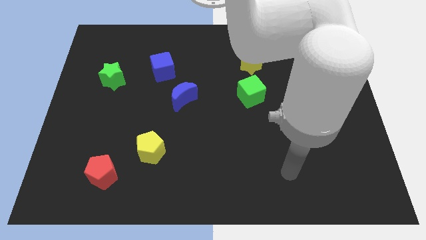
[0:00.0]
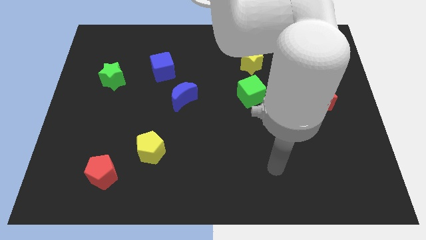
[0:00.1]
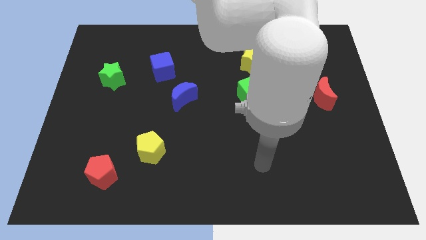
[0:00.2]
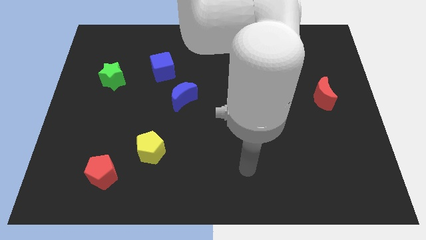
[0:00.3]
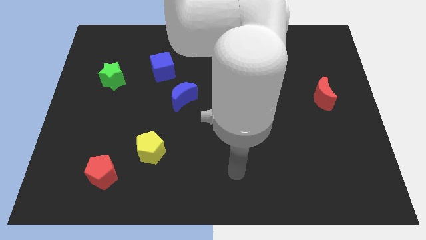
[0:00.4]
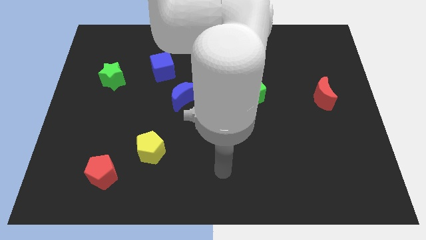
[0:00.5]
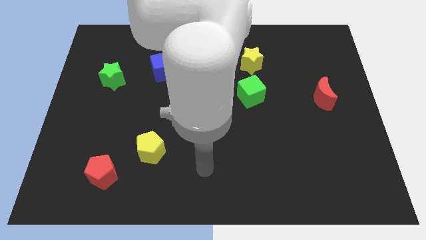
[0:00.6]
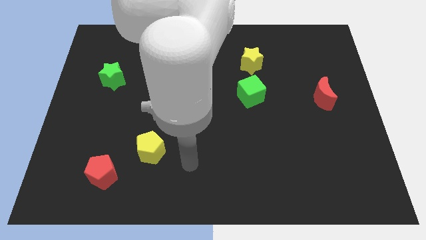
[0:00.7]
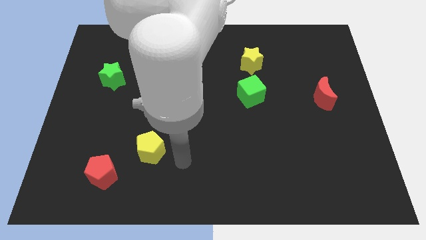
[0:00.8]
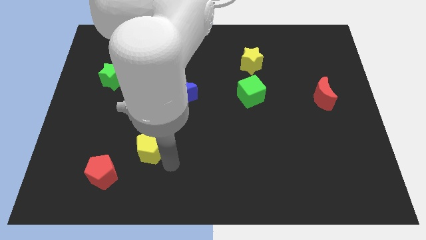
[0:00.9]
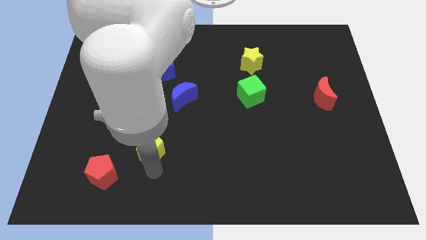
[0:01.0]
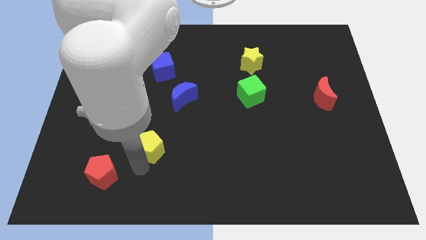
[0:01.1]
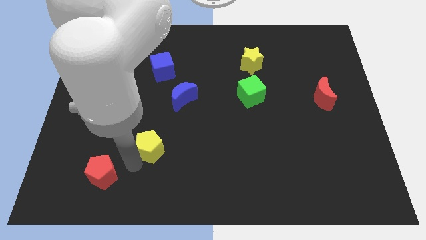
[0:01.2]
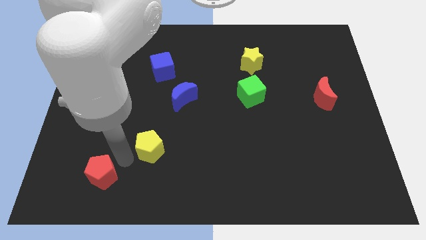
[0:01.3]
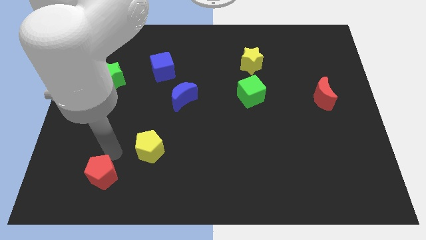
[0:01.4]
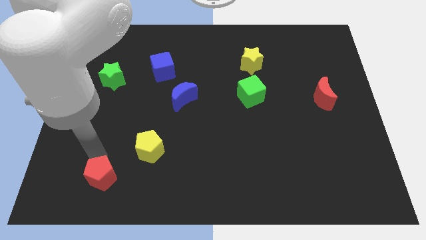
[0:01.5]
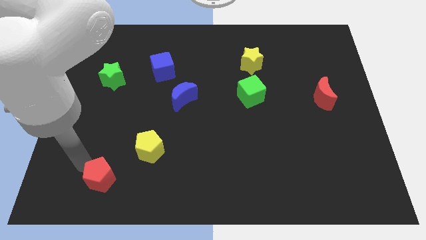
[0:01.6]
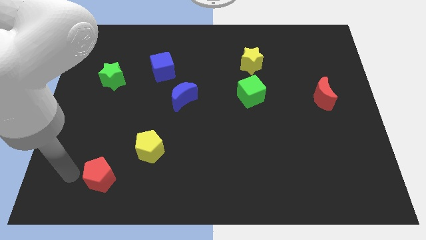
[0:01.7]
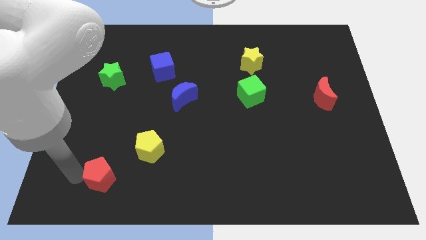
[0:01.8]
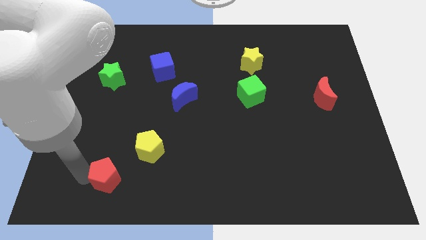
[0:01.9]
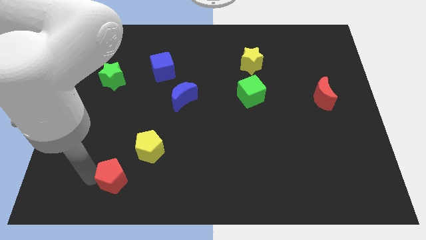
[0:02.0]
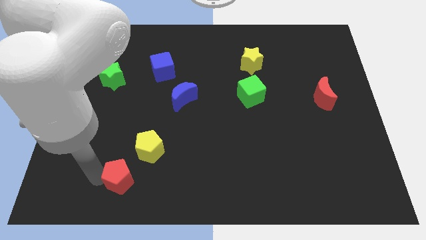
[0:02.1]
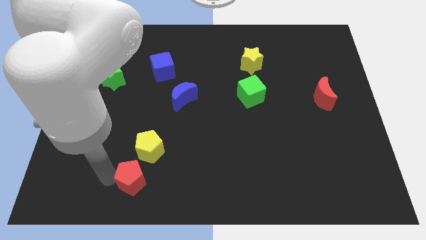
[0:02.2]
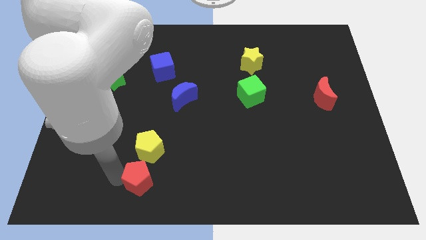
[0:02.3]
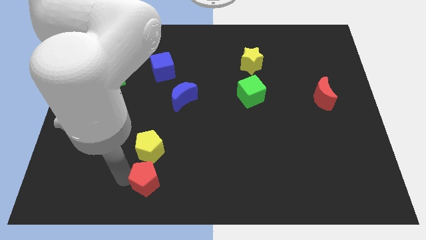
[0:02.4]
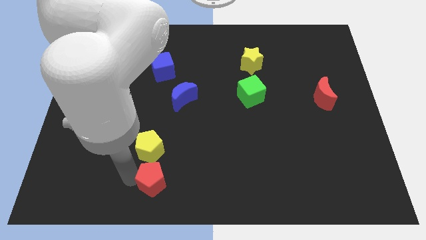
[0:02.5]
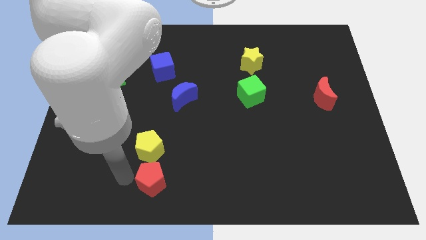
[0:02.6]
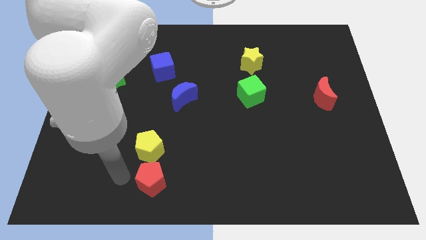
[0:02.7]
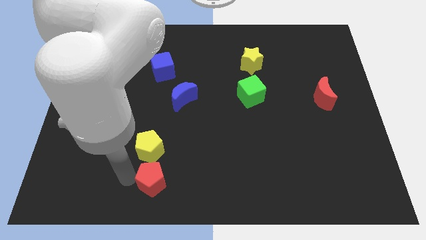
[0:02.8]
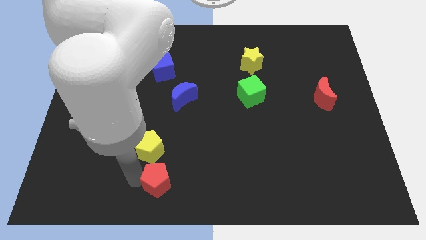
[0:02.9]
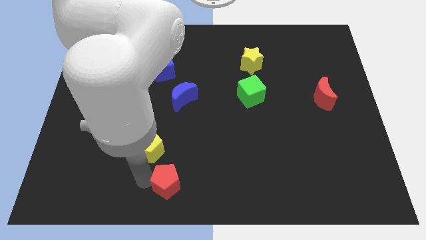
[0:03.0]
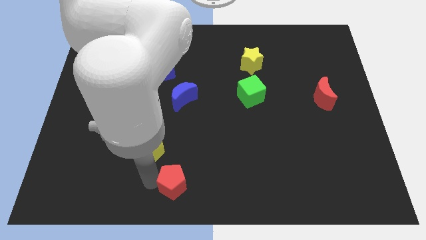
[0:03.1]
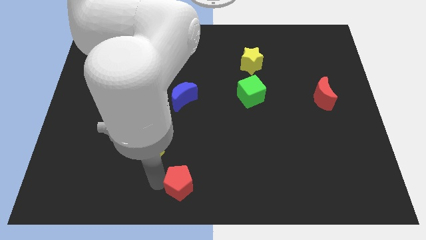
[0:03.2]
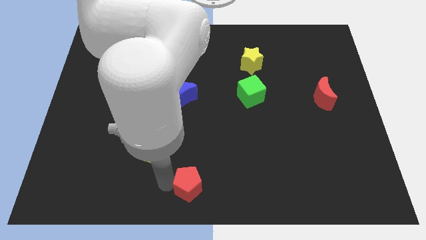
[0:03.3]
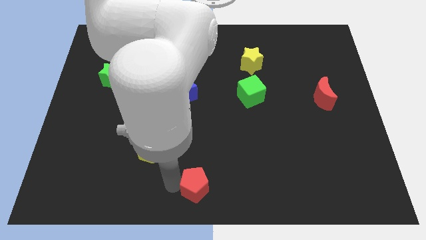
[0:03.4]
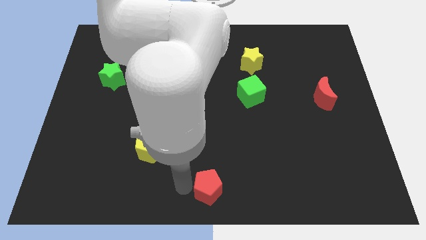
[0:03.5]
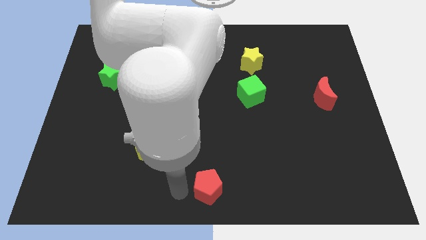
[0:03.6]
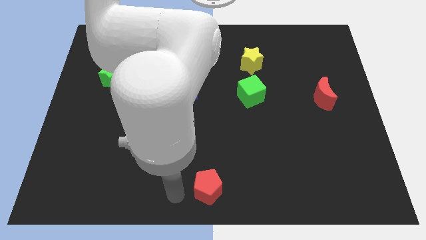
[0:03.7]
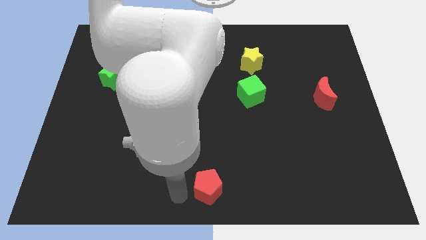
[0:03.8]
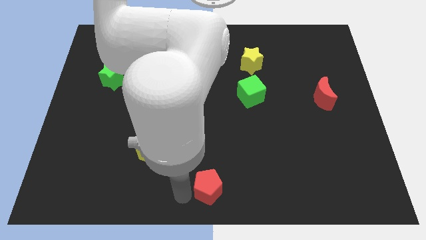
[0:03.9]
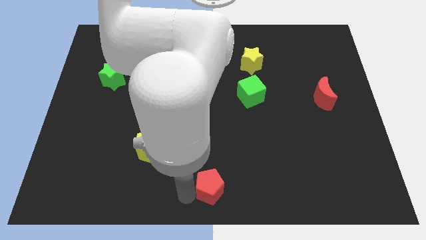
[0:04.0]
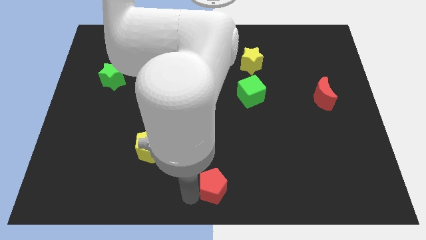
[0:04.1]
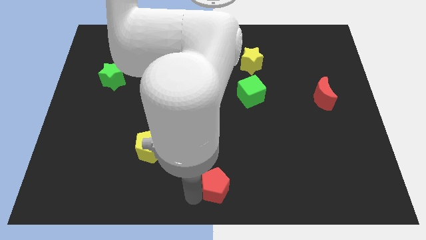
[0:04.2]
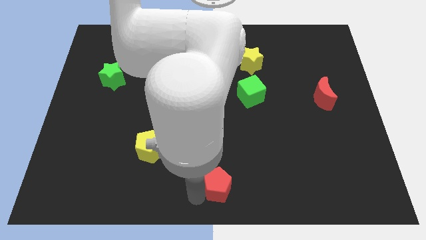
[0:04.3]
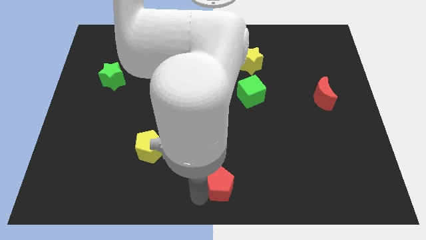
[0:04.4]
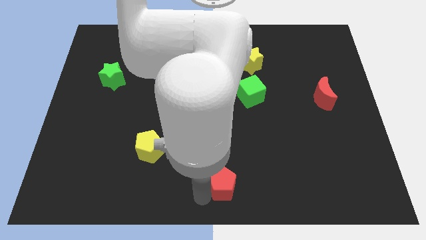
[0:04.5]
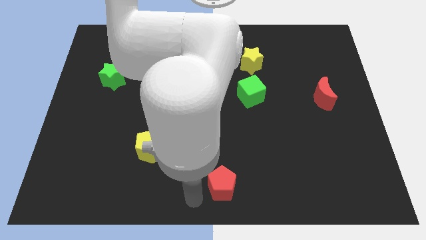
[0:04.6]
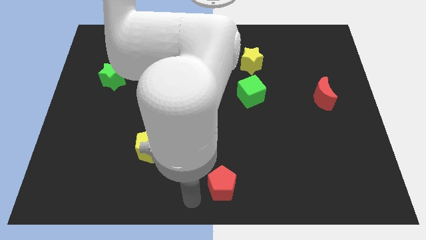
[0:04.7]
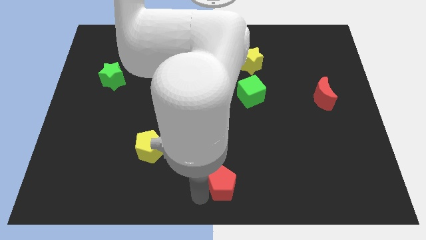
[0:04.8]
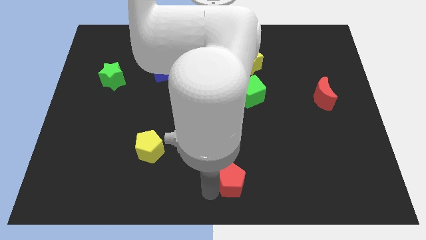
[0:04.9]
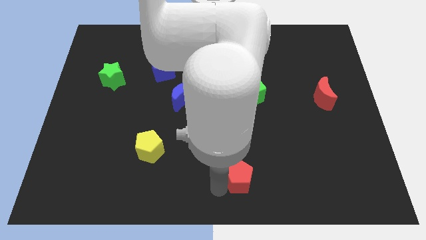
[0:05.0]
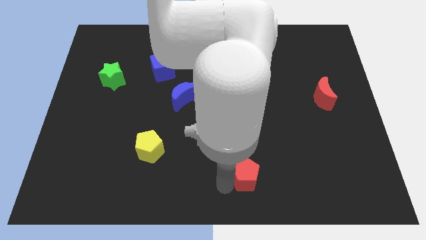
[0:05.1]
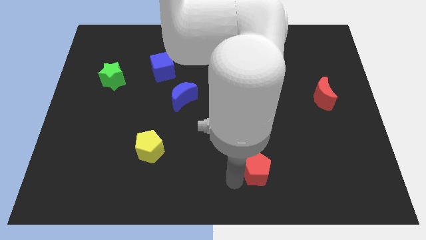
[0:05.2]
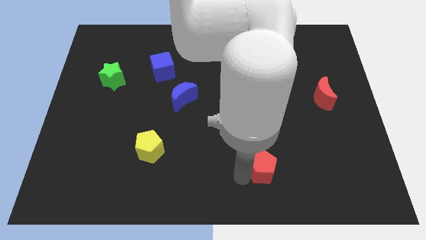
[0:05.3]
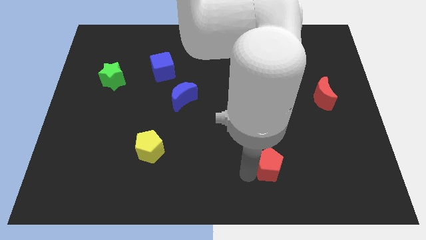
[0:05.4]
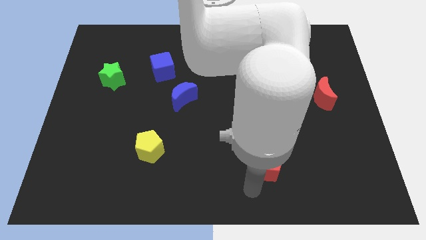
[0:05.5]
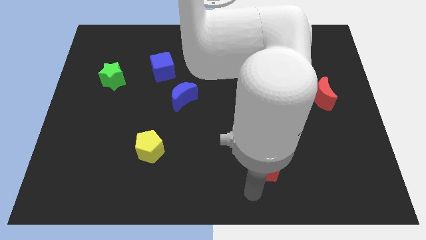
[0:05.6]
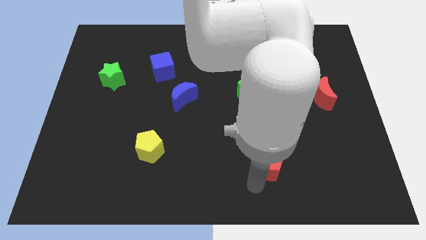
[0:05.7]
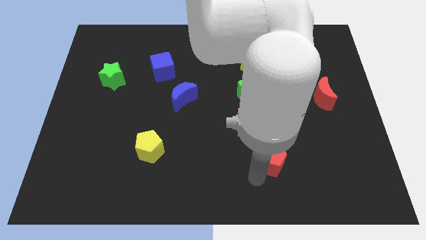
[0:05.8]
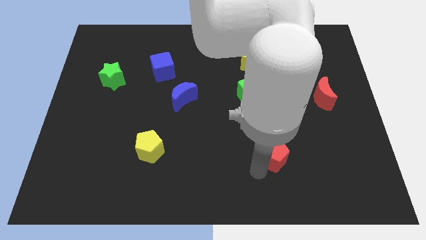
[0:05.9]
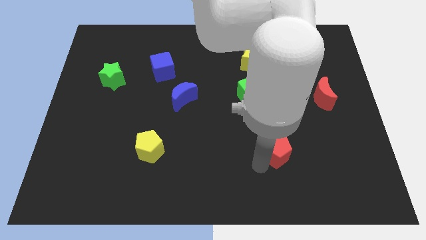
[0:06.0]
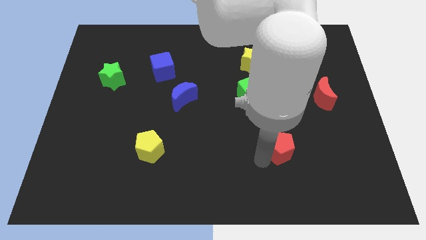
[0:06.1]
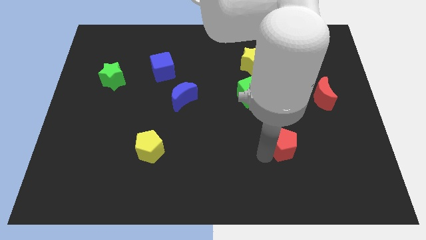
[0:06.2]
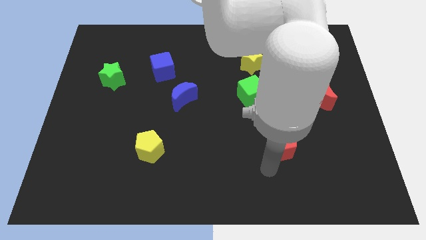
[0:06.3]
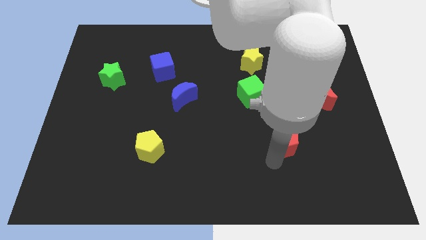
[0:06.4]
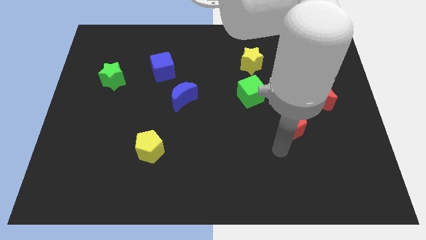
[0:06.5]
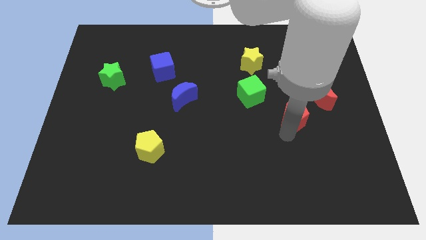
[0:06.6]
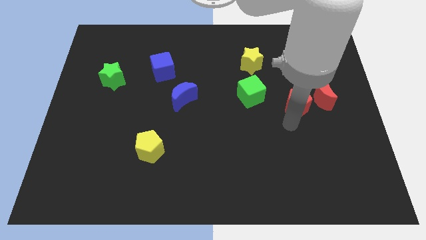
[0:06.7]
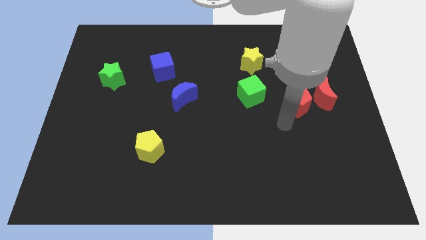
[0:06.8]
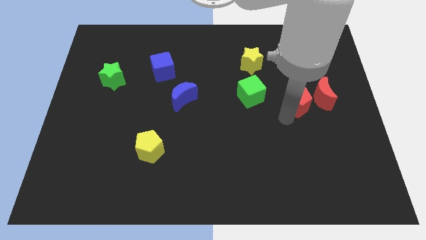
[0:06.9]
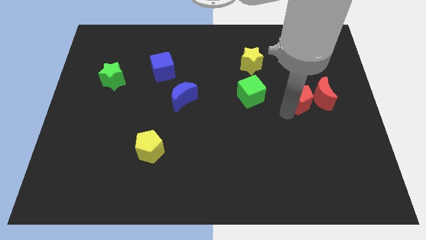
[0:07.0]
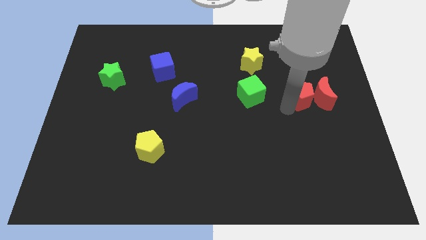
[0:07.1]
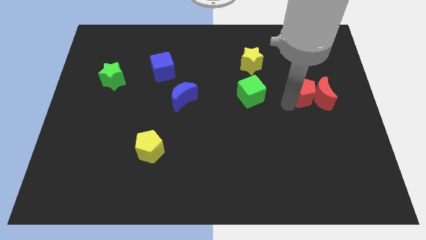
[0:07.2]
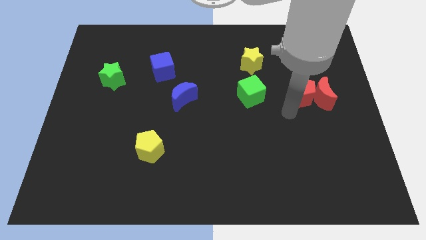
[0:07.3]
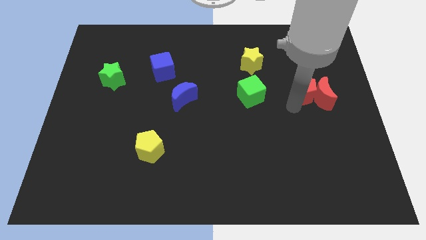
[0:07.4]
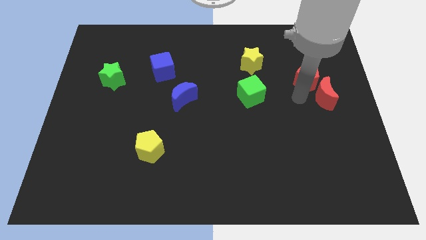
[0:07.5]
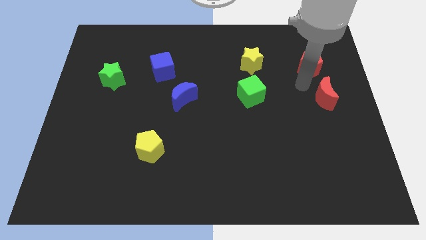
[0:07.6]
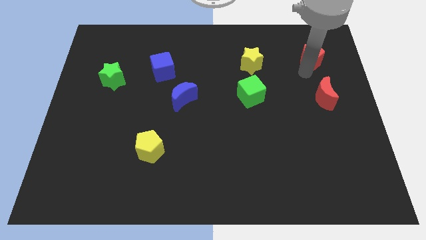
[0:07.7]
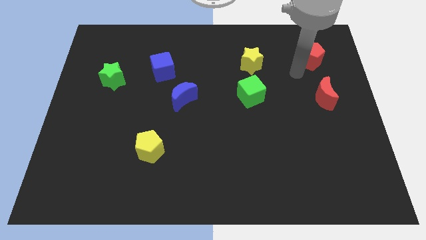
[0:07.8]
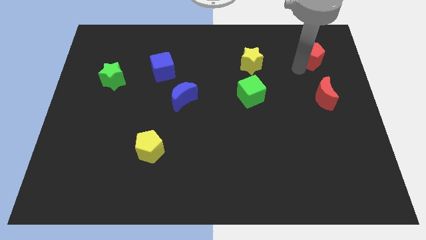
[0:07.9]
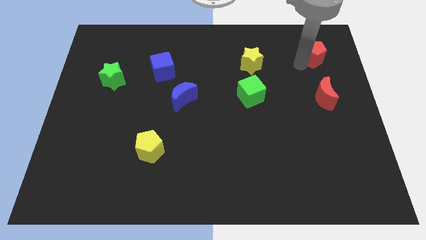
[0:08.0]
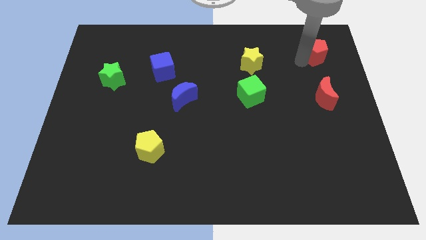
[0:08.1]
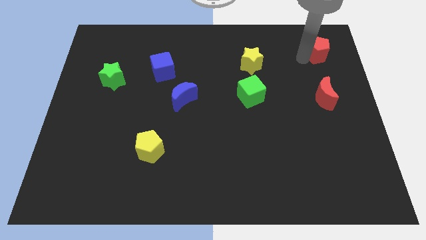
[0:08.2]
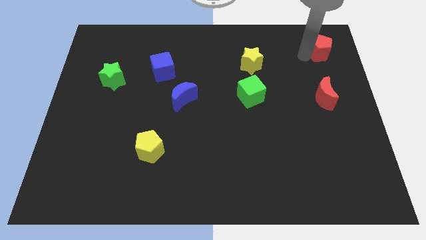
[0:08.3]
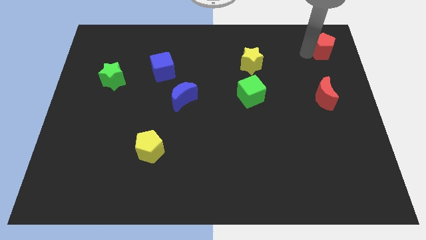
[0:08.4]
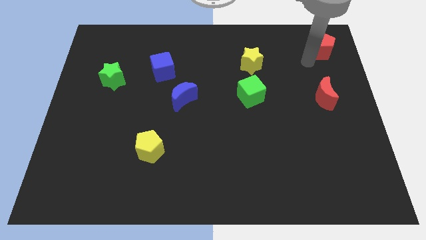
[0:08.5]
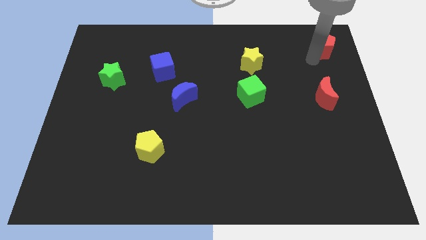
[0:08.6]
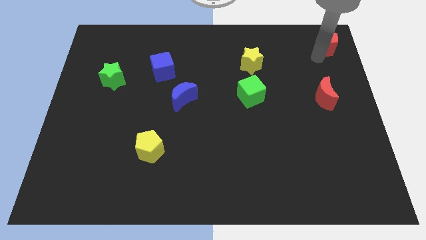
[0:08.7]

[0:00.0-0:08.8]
move the red pentagon to the top right of the board
